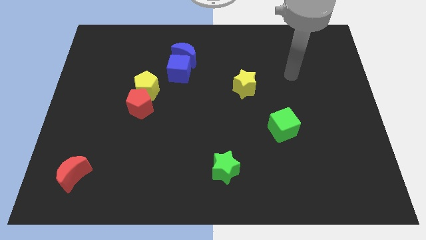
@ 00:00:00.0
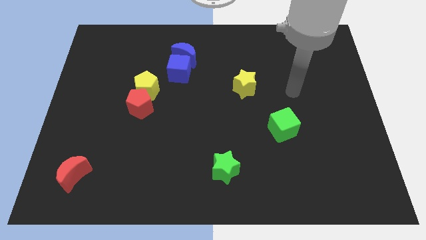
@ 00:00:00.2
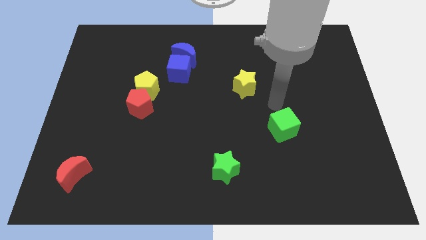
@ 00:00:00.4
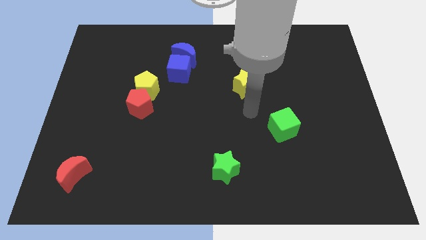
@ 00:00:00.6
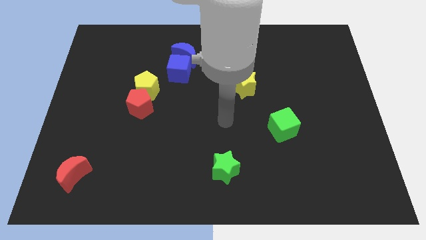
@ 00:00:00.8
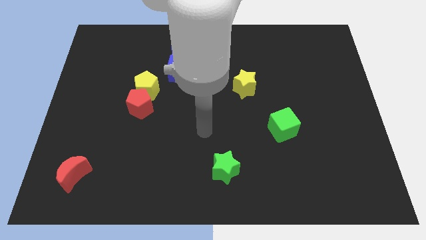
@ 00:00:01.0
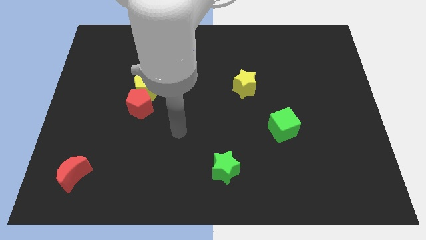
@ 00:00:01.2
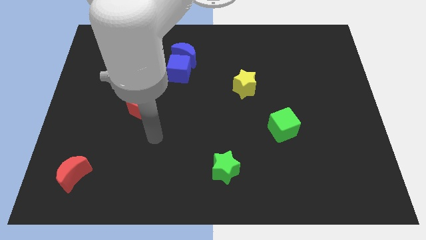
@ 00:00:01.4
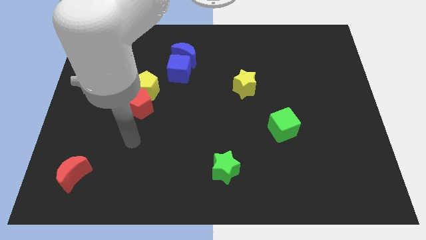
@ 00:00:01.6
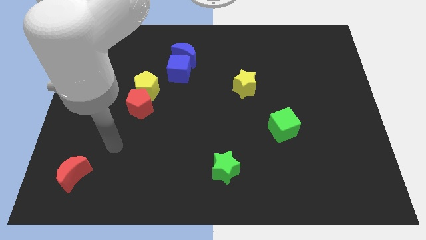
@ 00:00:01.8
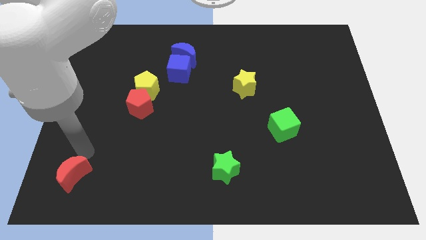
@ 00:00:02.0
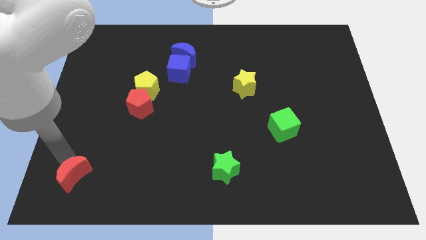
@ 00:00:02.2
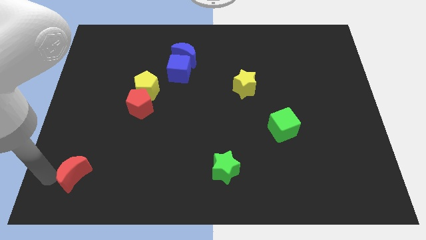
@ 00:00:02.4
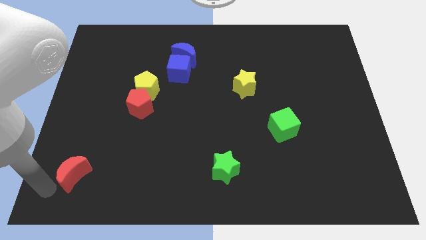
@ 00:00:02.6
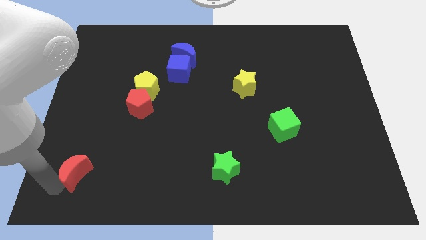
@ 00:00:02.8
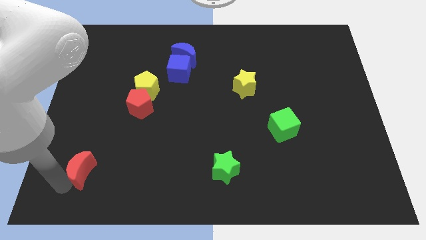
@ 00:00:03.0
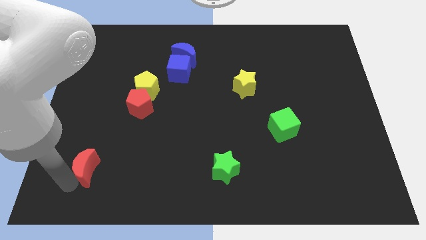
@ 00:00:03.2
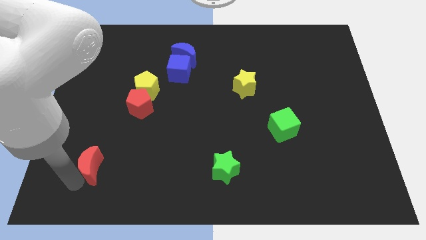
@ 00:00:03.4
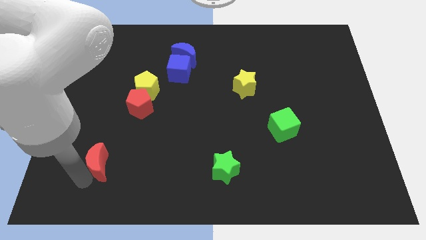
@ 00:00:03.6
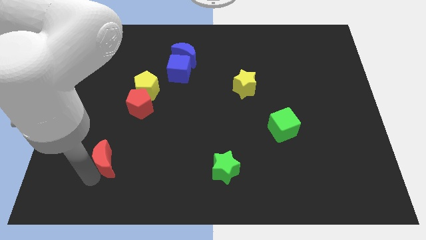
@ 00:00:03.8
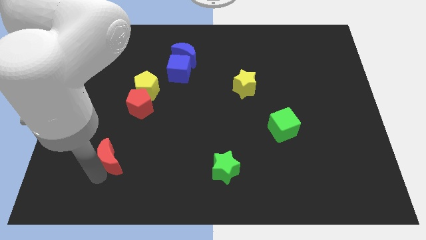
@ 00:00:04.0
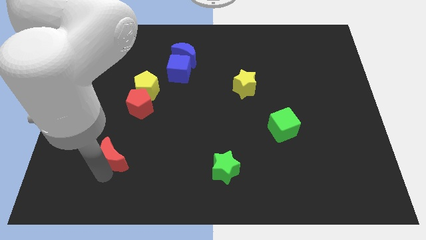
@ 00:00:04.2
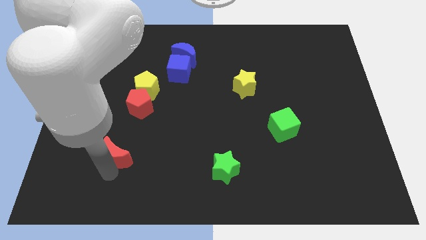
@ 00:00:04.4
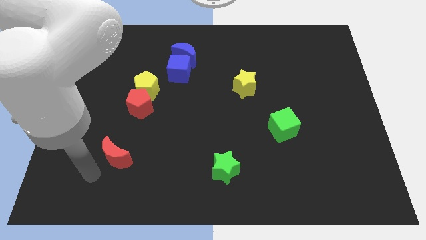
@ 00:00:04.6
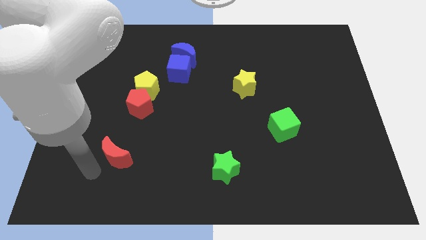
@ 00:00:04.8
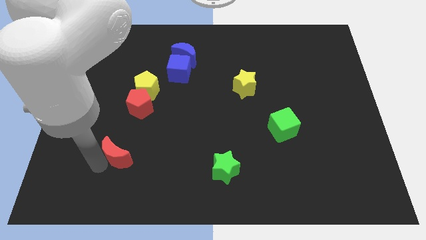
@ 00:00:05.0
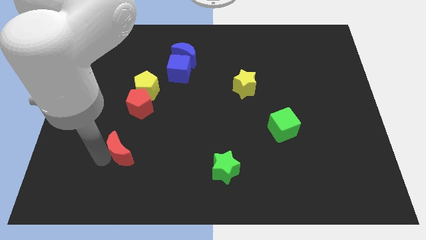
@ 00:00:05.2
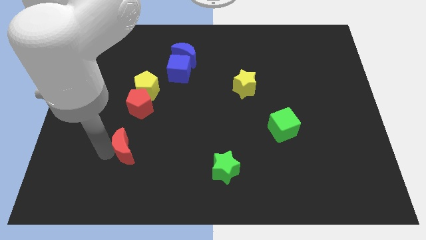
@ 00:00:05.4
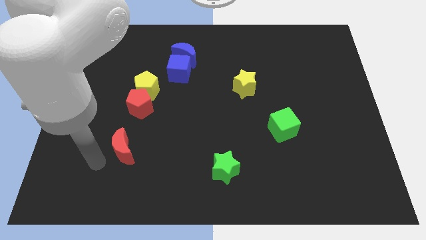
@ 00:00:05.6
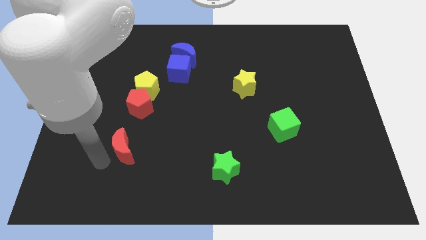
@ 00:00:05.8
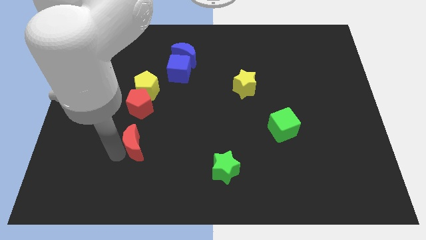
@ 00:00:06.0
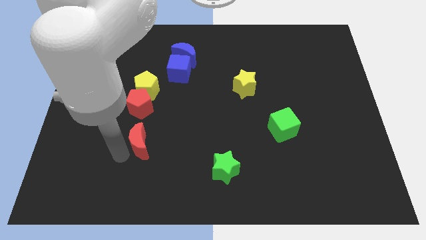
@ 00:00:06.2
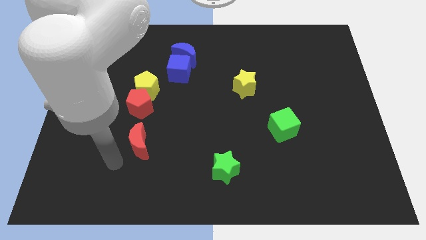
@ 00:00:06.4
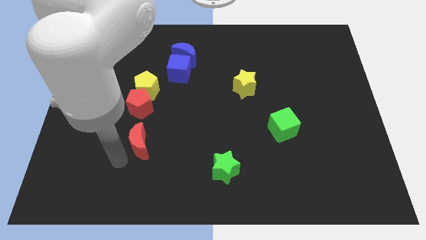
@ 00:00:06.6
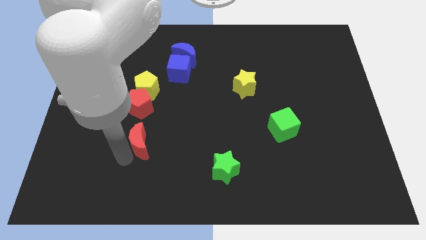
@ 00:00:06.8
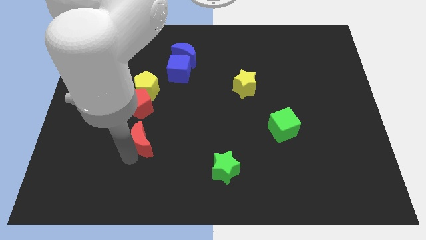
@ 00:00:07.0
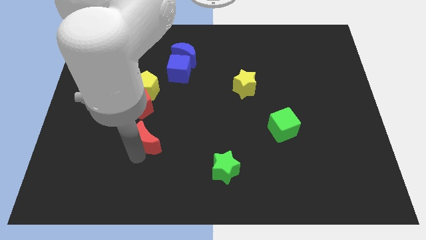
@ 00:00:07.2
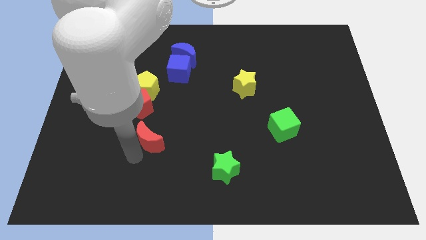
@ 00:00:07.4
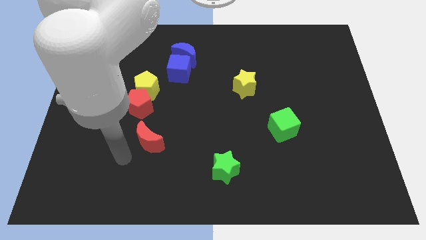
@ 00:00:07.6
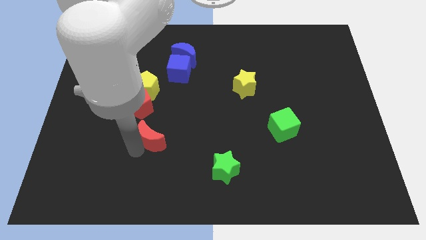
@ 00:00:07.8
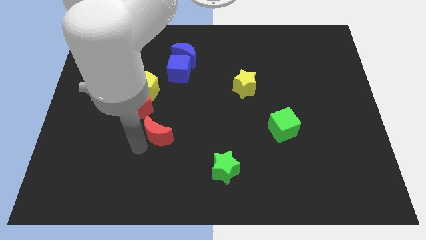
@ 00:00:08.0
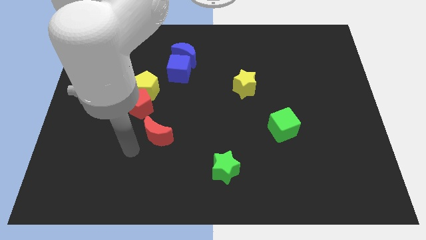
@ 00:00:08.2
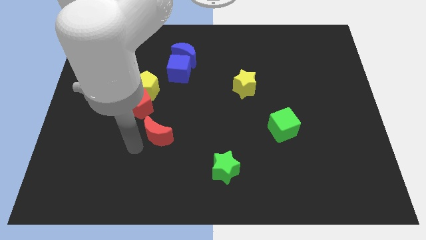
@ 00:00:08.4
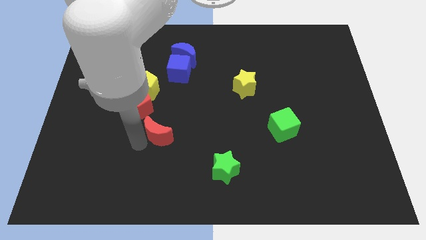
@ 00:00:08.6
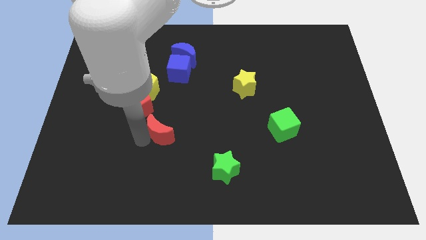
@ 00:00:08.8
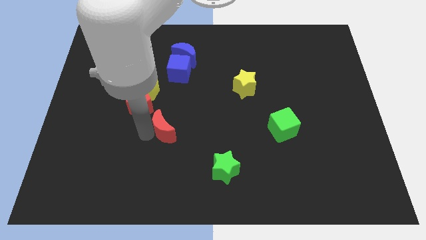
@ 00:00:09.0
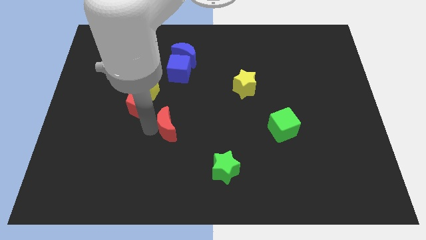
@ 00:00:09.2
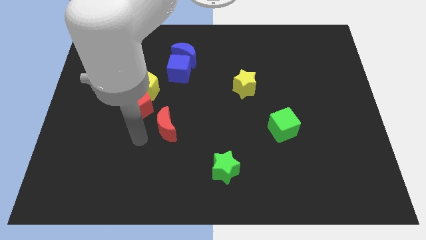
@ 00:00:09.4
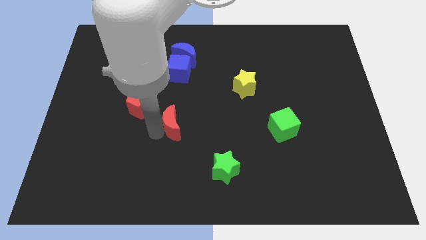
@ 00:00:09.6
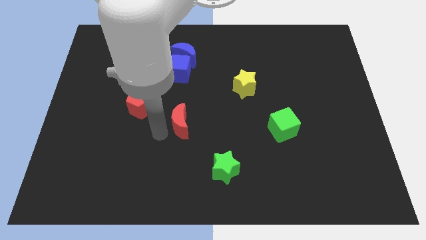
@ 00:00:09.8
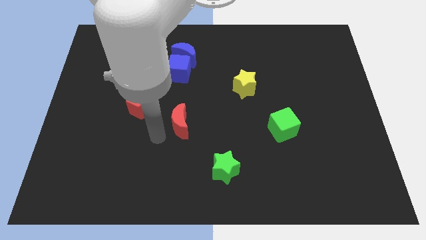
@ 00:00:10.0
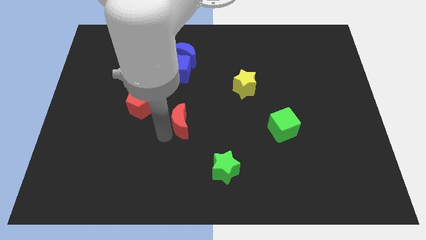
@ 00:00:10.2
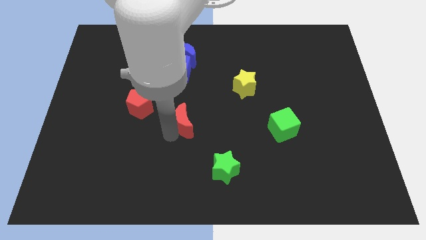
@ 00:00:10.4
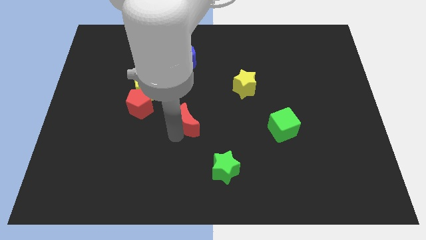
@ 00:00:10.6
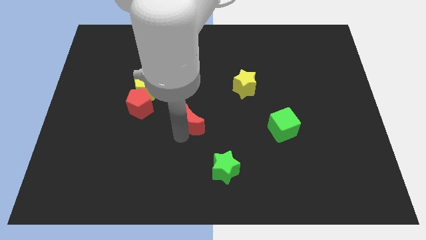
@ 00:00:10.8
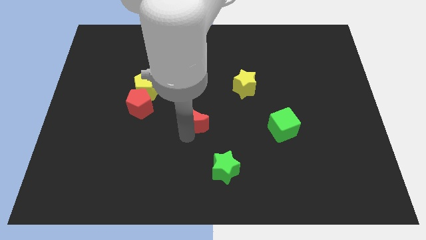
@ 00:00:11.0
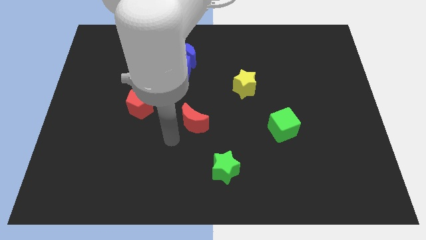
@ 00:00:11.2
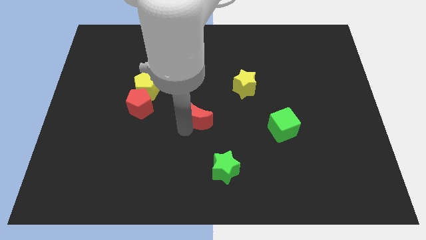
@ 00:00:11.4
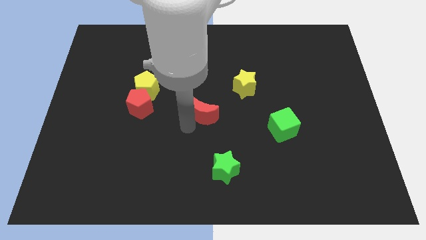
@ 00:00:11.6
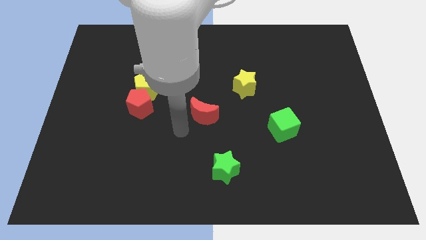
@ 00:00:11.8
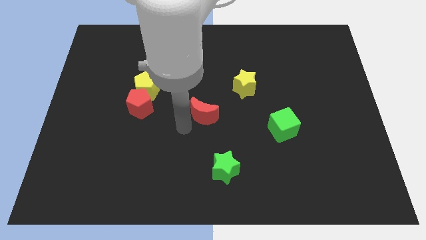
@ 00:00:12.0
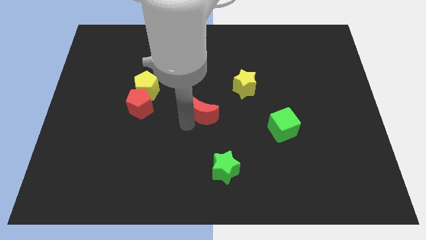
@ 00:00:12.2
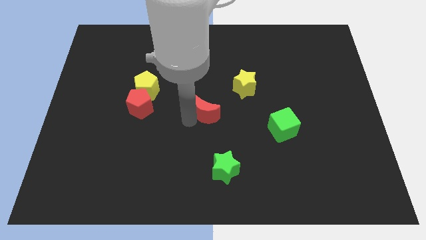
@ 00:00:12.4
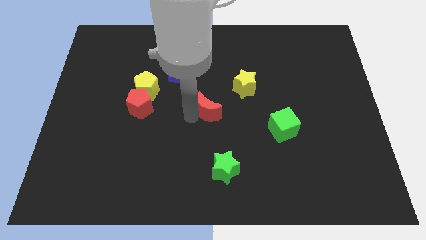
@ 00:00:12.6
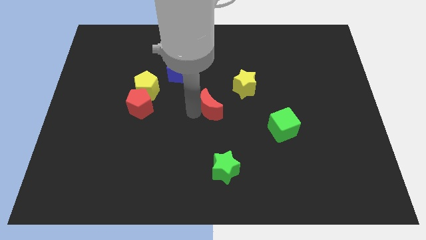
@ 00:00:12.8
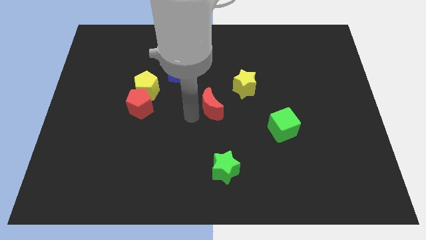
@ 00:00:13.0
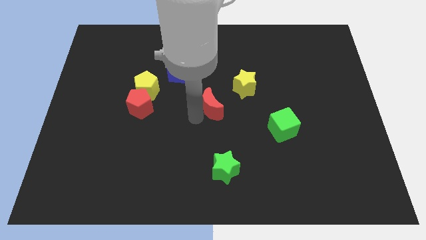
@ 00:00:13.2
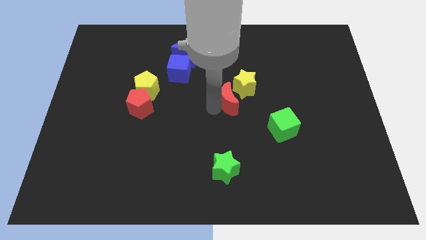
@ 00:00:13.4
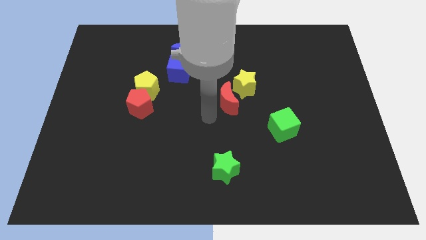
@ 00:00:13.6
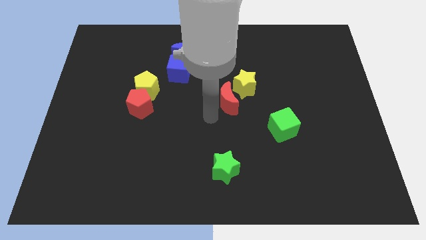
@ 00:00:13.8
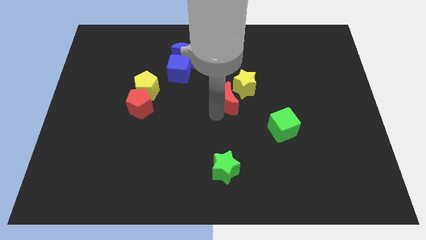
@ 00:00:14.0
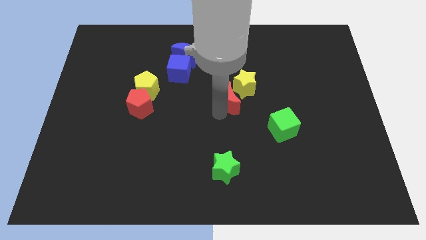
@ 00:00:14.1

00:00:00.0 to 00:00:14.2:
push the red moon close to the yellow star
